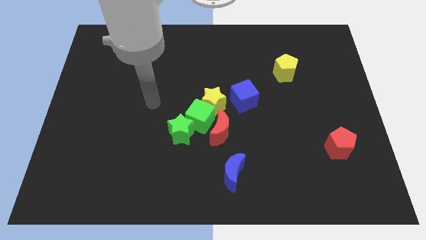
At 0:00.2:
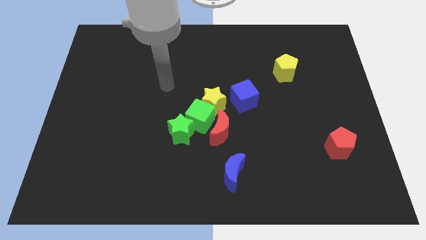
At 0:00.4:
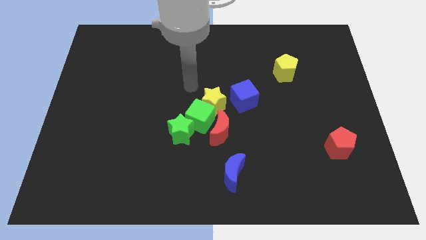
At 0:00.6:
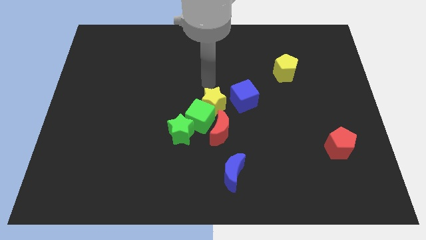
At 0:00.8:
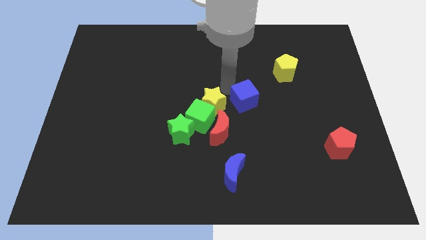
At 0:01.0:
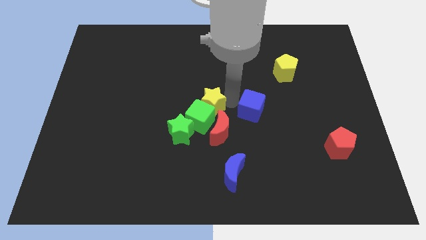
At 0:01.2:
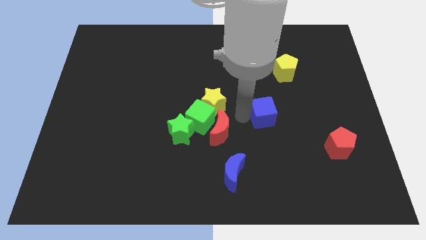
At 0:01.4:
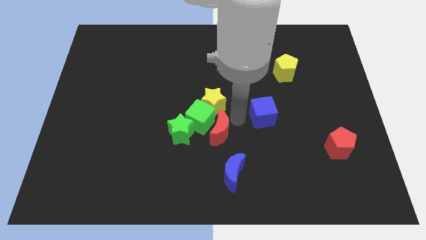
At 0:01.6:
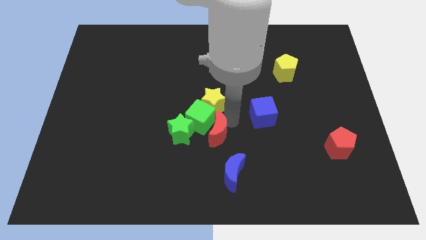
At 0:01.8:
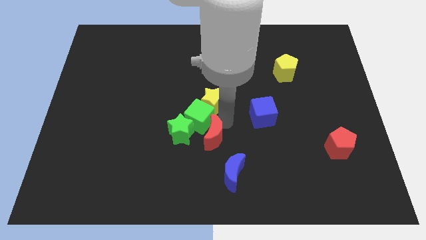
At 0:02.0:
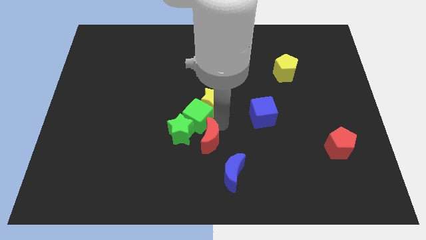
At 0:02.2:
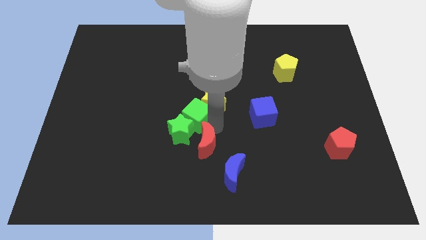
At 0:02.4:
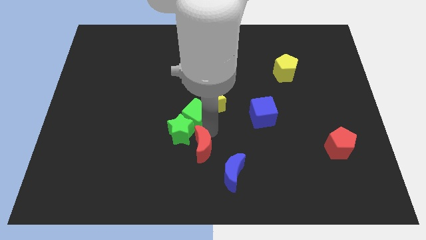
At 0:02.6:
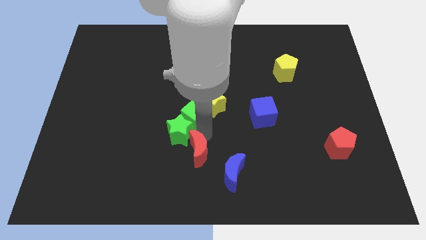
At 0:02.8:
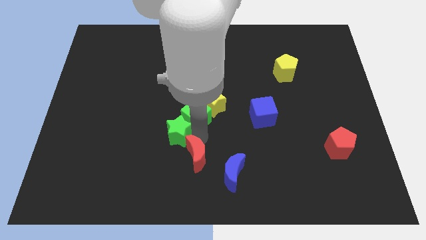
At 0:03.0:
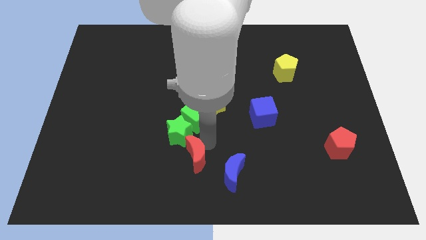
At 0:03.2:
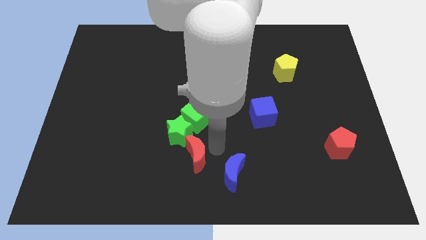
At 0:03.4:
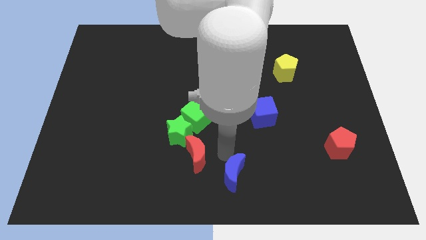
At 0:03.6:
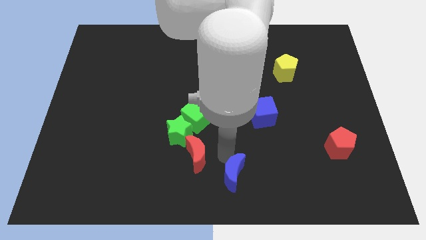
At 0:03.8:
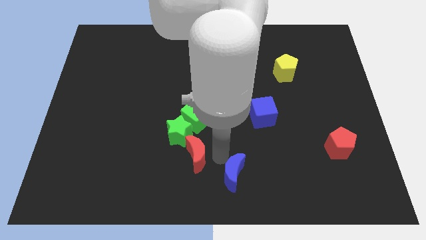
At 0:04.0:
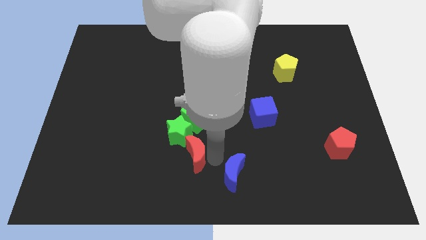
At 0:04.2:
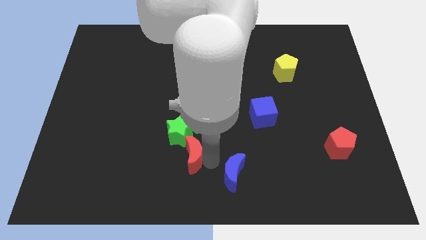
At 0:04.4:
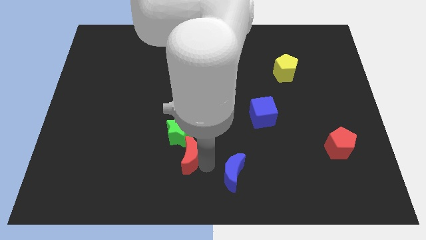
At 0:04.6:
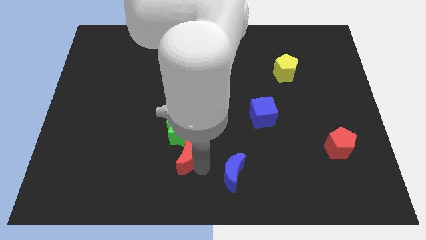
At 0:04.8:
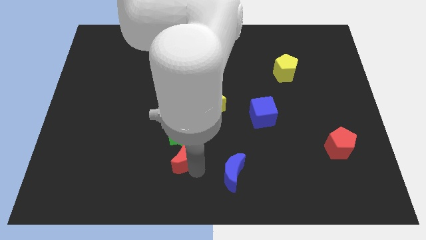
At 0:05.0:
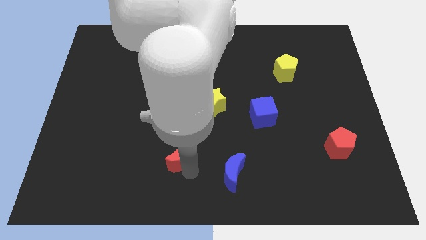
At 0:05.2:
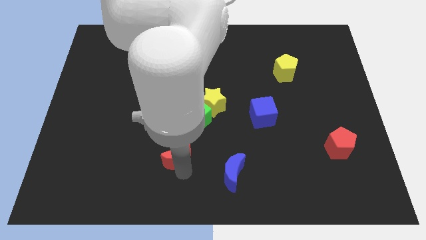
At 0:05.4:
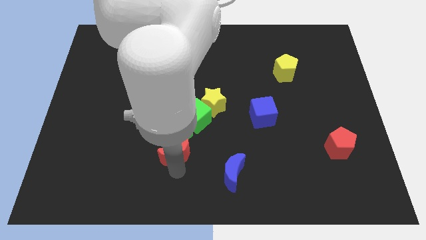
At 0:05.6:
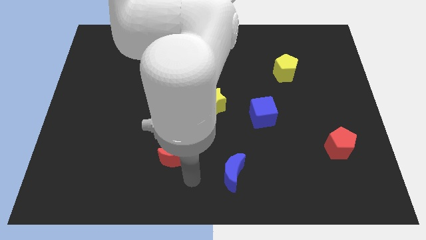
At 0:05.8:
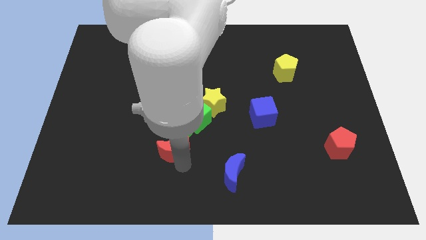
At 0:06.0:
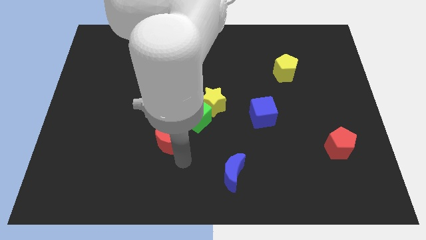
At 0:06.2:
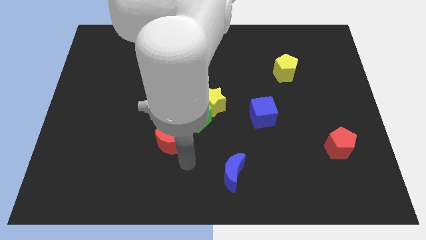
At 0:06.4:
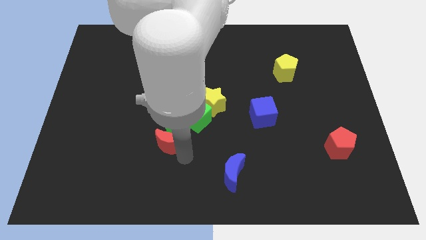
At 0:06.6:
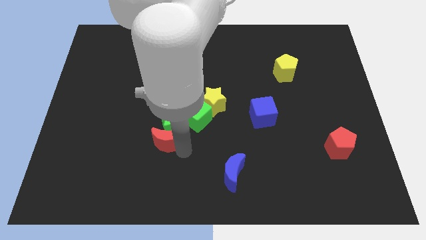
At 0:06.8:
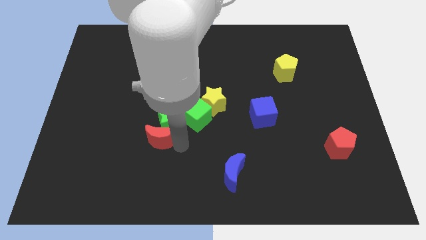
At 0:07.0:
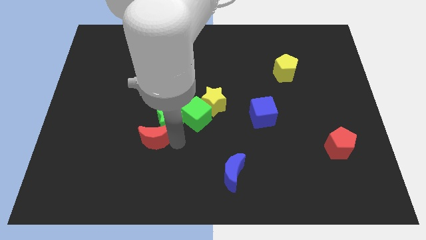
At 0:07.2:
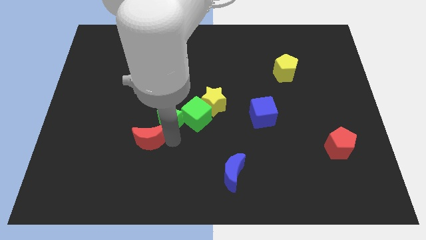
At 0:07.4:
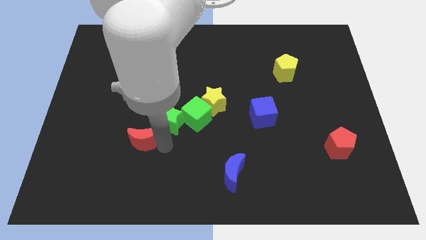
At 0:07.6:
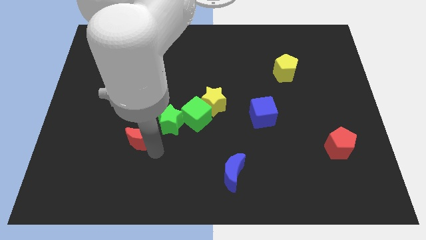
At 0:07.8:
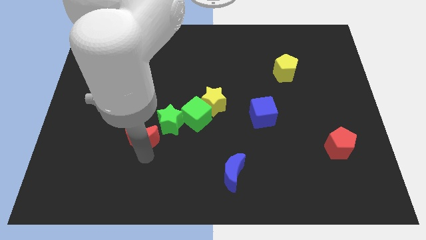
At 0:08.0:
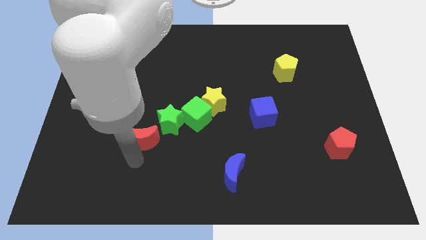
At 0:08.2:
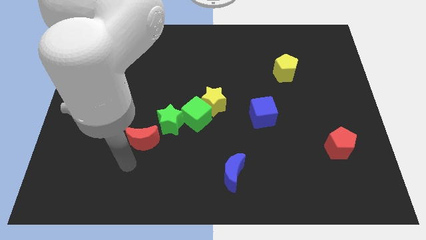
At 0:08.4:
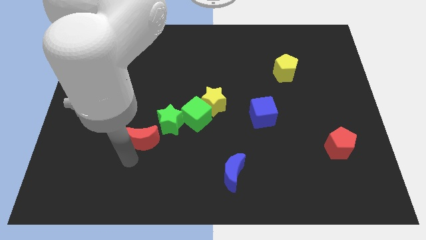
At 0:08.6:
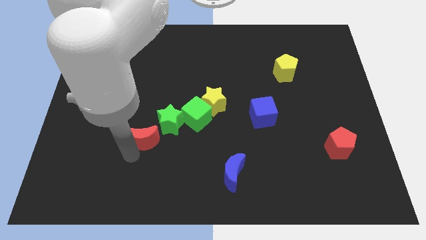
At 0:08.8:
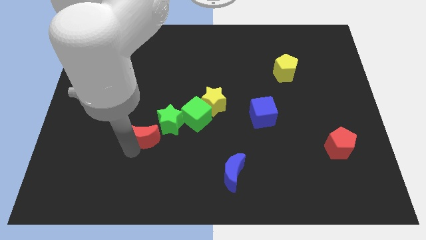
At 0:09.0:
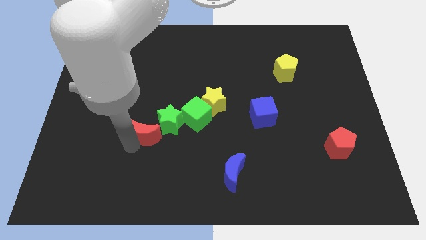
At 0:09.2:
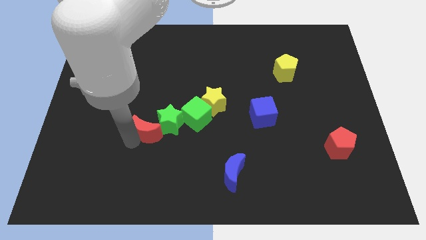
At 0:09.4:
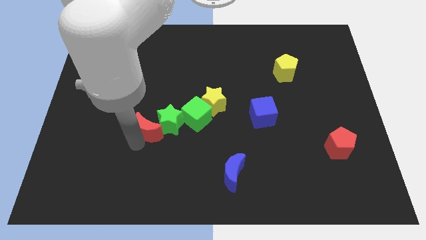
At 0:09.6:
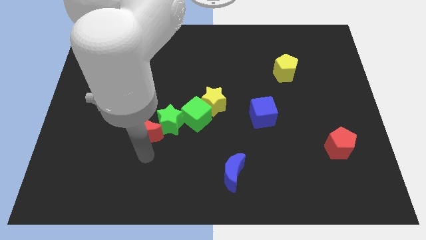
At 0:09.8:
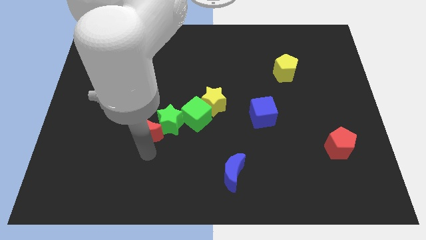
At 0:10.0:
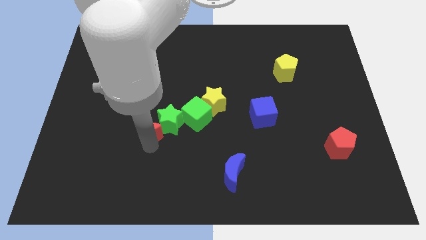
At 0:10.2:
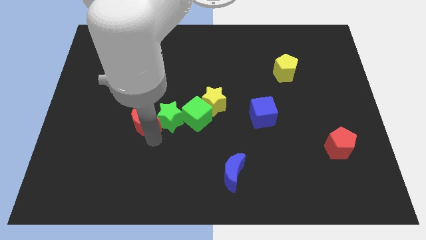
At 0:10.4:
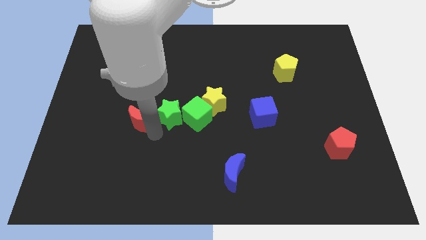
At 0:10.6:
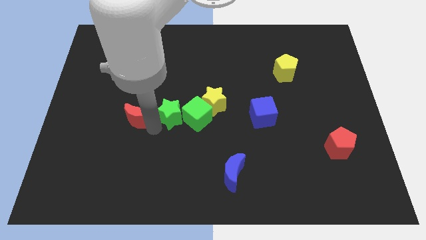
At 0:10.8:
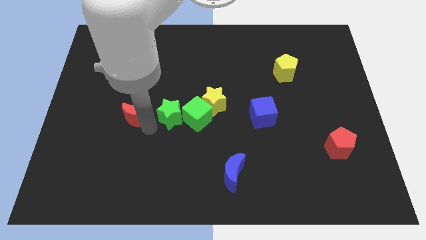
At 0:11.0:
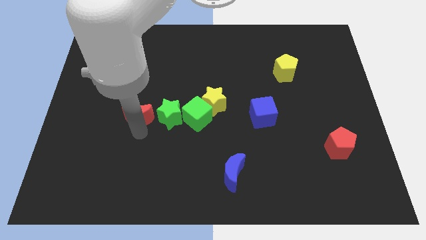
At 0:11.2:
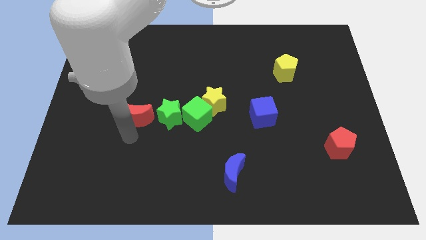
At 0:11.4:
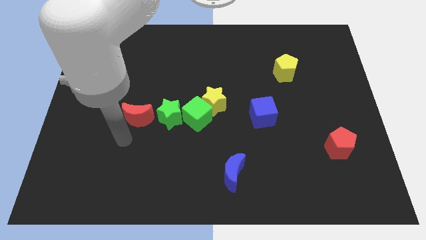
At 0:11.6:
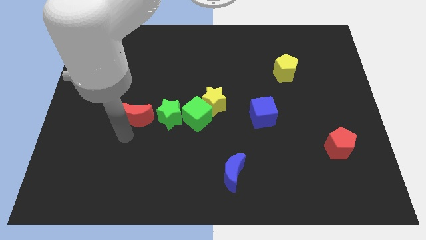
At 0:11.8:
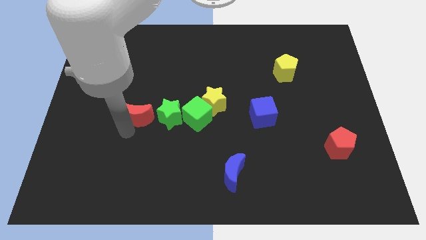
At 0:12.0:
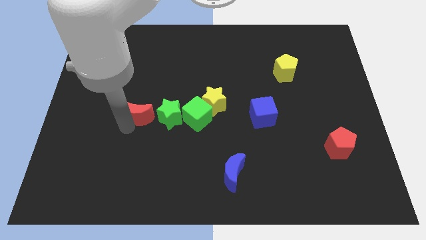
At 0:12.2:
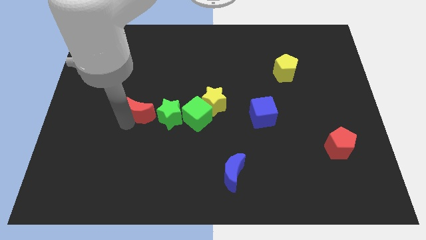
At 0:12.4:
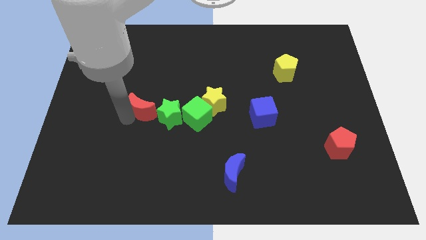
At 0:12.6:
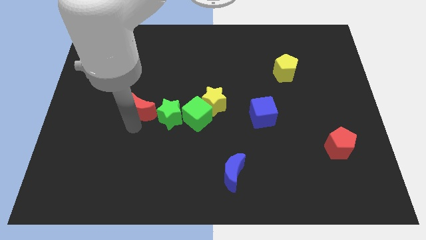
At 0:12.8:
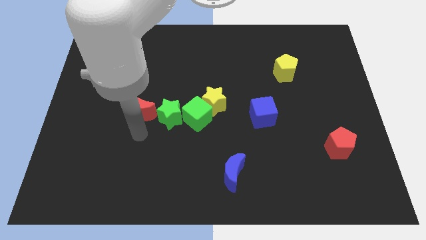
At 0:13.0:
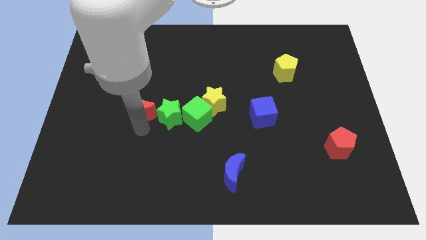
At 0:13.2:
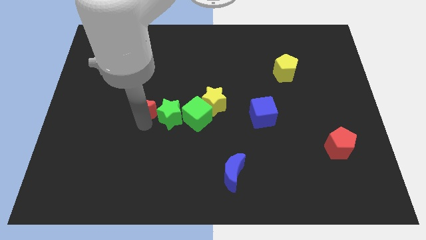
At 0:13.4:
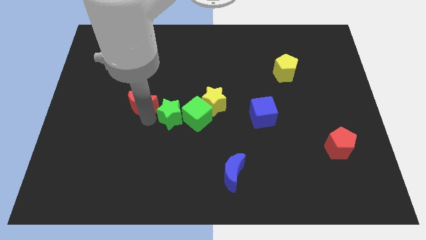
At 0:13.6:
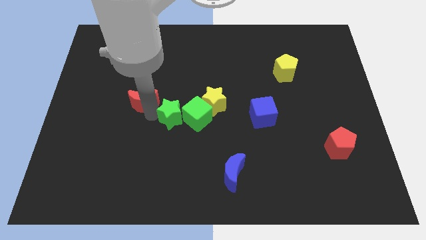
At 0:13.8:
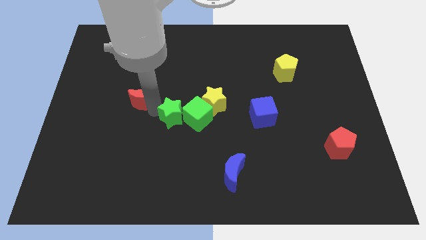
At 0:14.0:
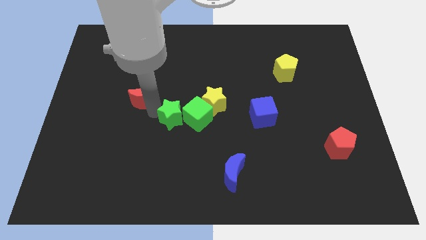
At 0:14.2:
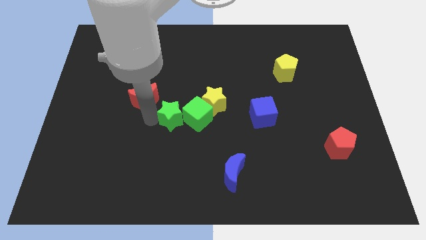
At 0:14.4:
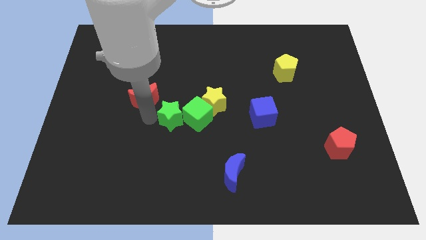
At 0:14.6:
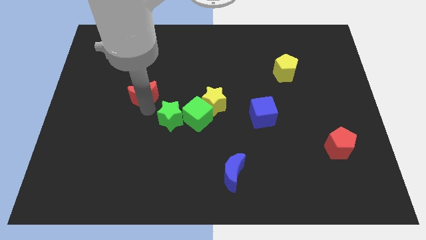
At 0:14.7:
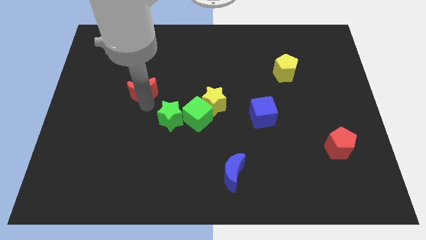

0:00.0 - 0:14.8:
slide the red moon diagonally up and to the left

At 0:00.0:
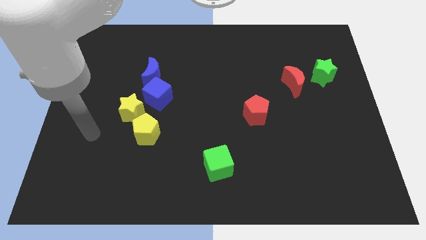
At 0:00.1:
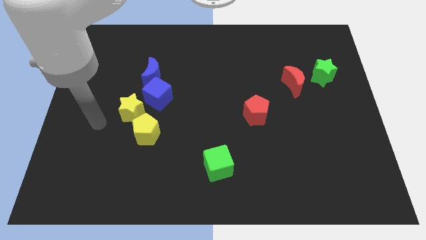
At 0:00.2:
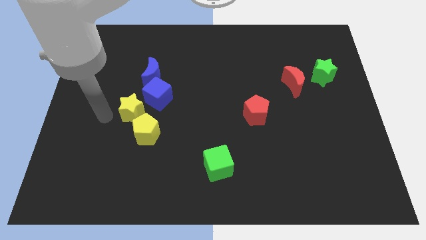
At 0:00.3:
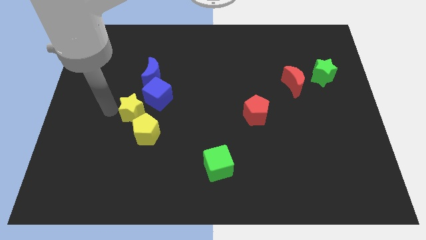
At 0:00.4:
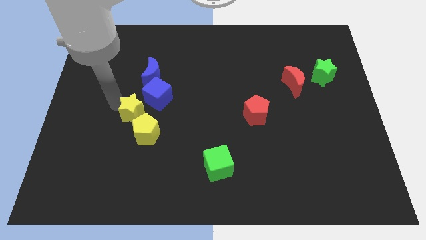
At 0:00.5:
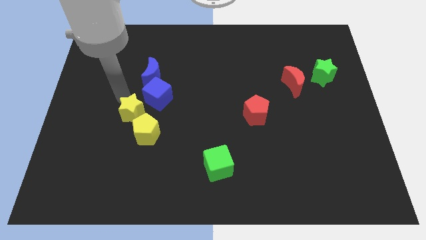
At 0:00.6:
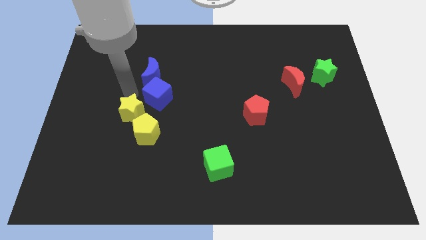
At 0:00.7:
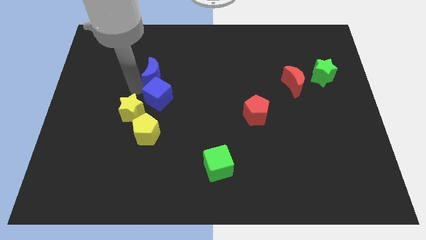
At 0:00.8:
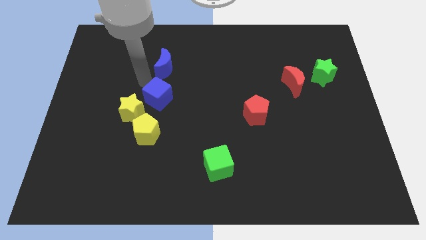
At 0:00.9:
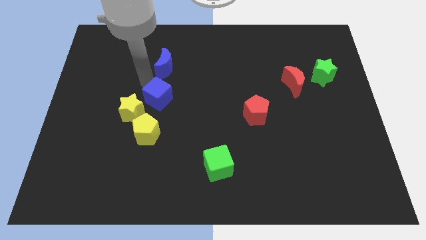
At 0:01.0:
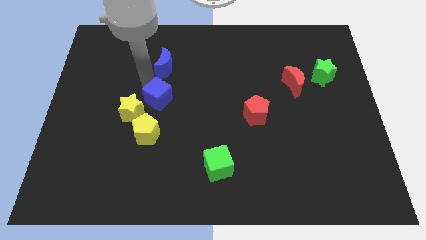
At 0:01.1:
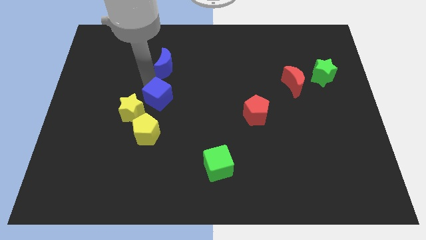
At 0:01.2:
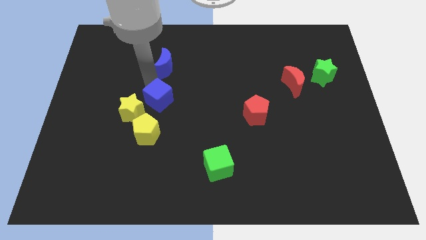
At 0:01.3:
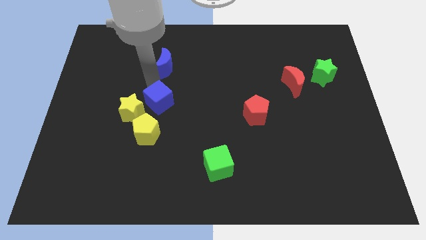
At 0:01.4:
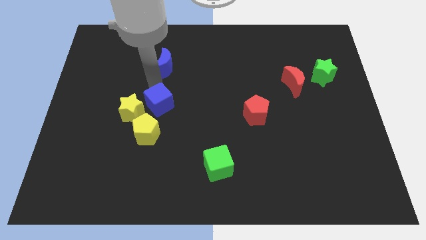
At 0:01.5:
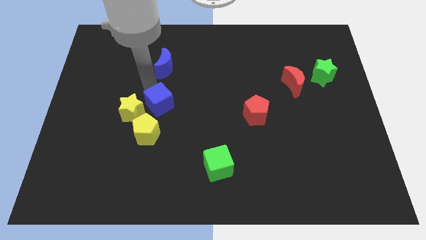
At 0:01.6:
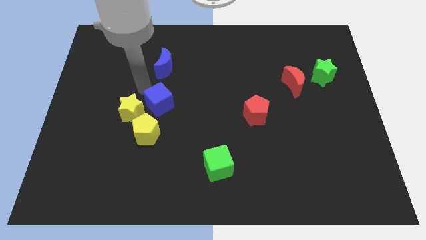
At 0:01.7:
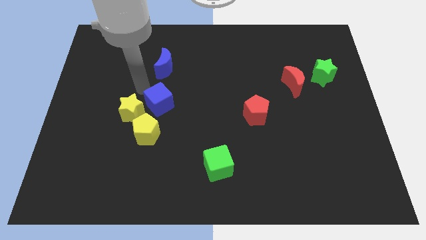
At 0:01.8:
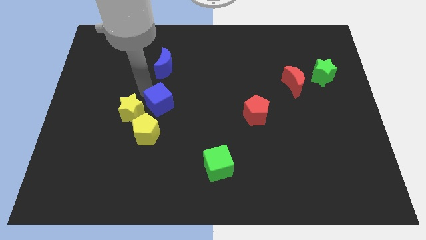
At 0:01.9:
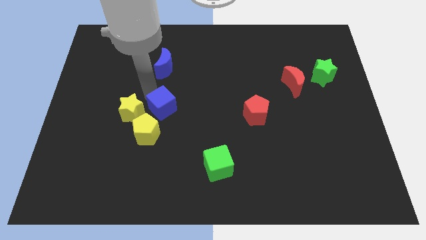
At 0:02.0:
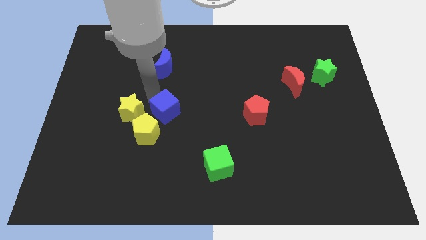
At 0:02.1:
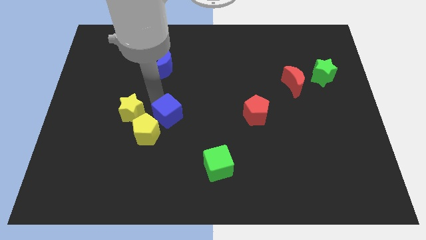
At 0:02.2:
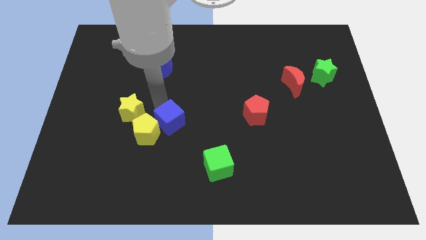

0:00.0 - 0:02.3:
push the blue cube slightly diagonally downwards and right
